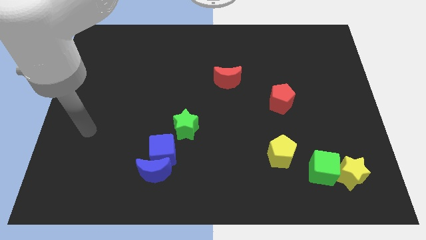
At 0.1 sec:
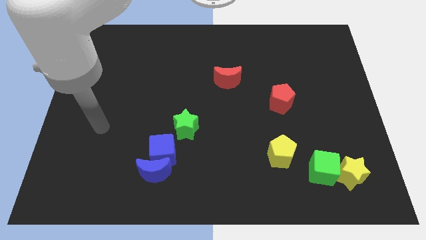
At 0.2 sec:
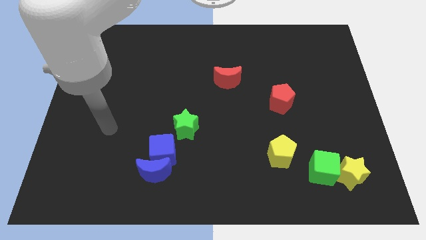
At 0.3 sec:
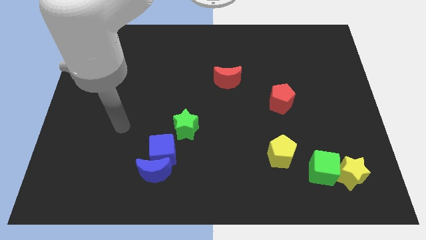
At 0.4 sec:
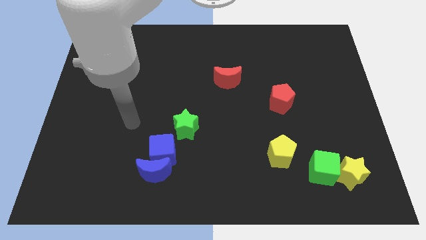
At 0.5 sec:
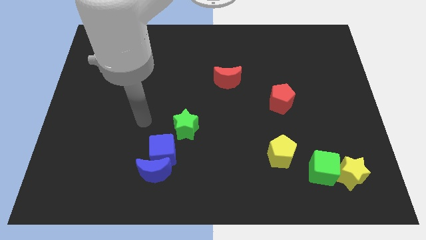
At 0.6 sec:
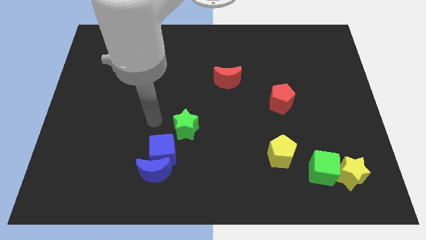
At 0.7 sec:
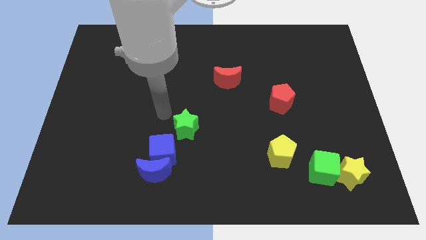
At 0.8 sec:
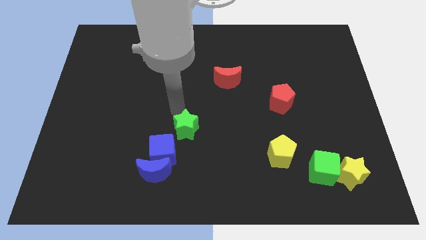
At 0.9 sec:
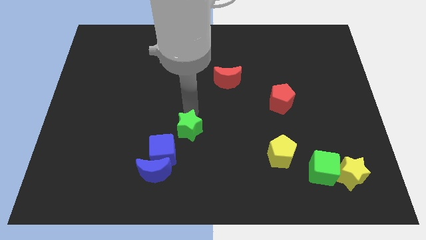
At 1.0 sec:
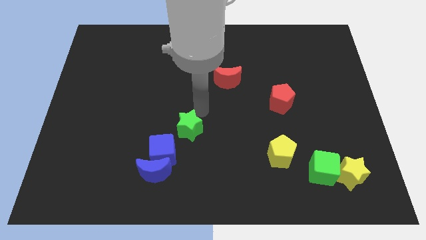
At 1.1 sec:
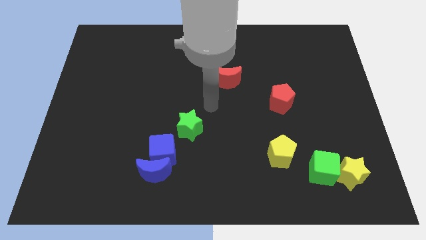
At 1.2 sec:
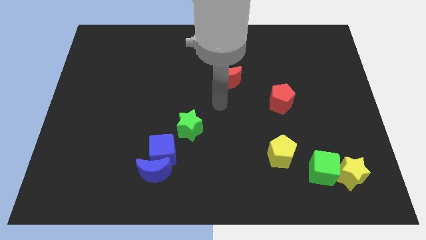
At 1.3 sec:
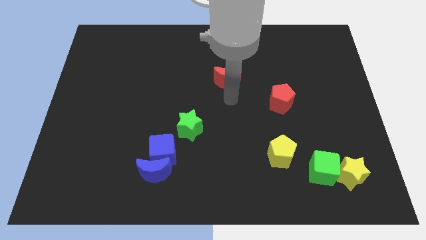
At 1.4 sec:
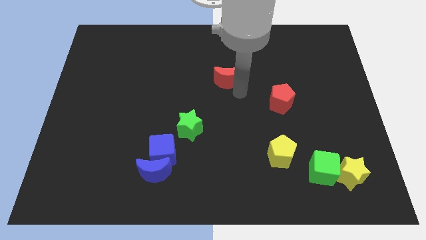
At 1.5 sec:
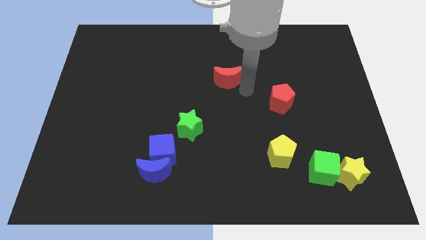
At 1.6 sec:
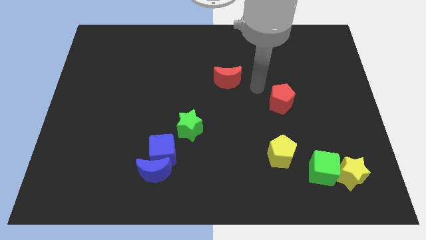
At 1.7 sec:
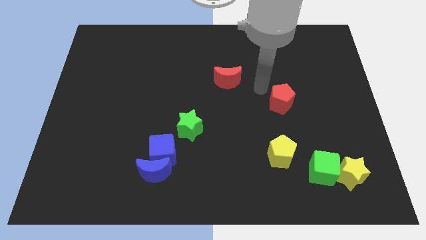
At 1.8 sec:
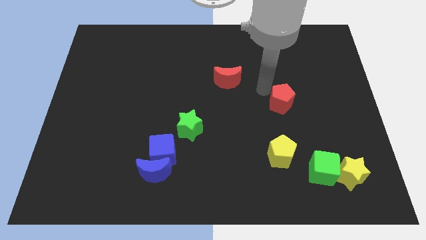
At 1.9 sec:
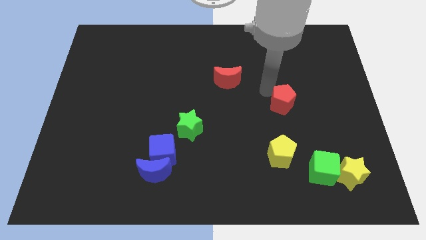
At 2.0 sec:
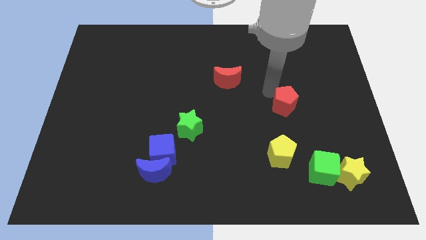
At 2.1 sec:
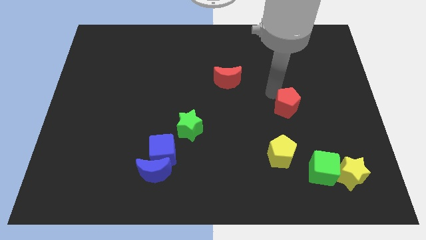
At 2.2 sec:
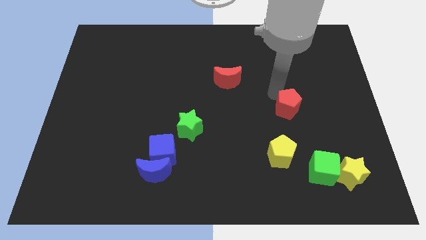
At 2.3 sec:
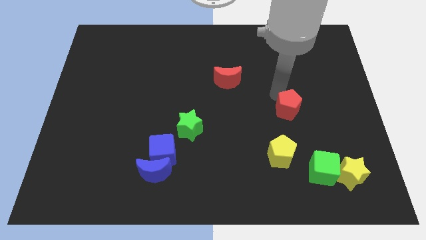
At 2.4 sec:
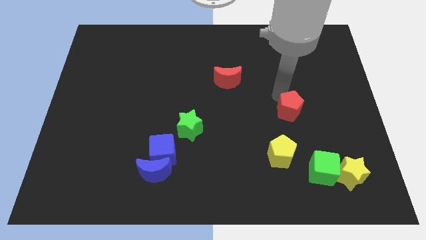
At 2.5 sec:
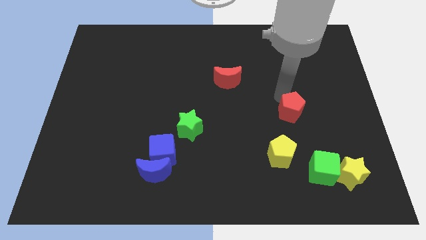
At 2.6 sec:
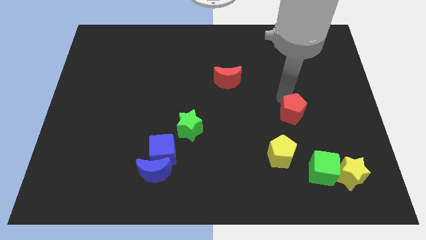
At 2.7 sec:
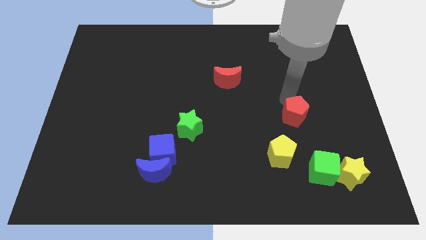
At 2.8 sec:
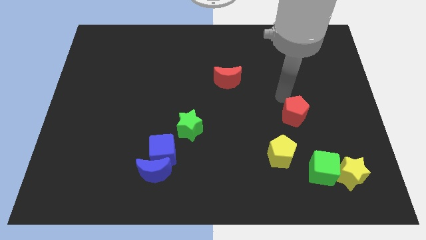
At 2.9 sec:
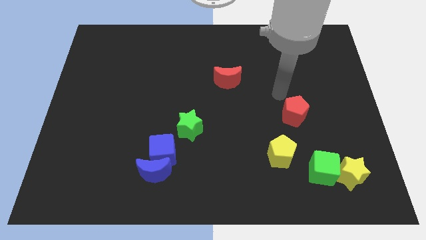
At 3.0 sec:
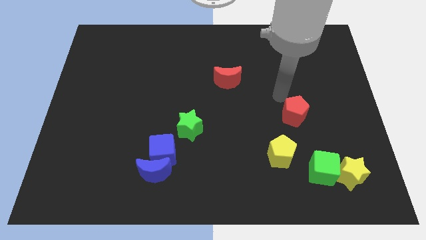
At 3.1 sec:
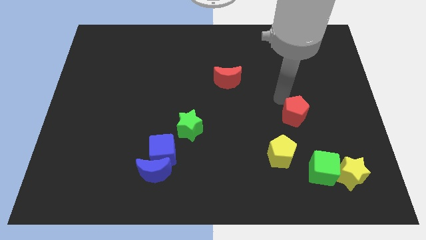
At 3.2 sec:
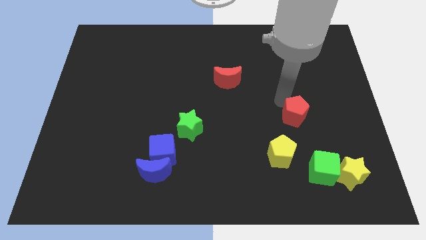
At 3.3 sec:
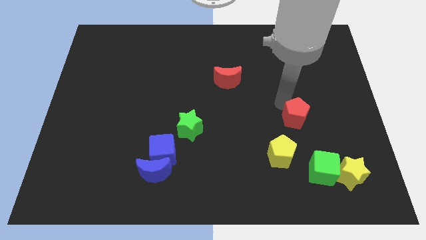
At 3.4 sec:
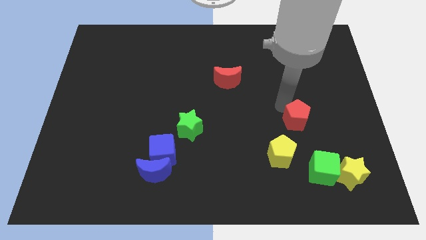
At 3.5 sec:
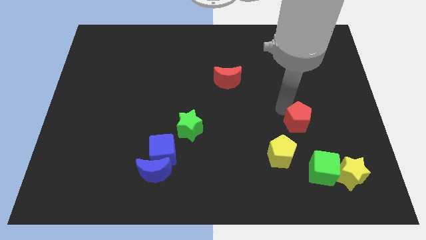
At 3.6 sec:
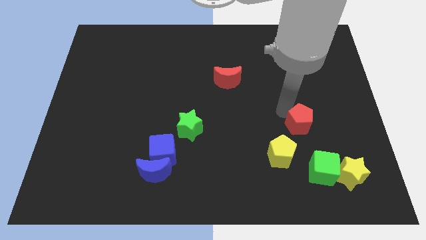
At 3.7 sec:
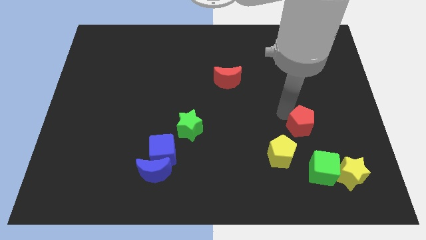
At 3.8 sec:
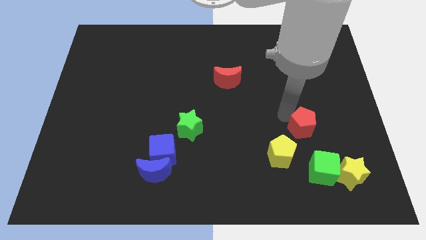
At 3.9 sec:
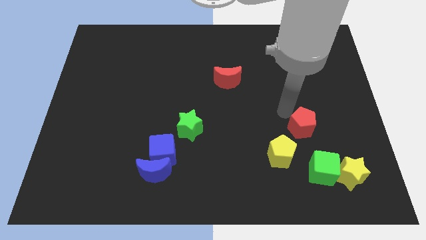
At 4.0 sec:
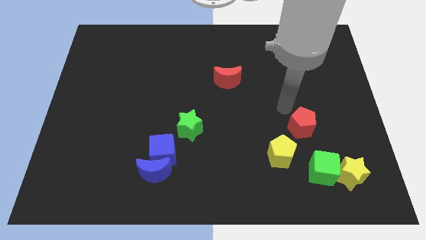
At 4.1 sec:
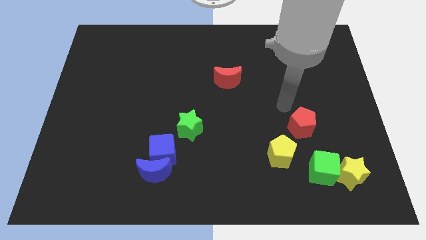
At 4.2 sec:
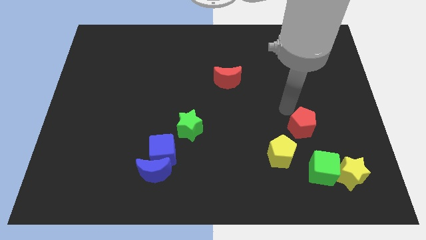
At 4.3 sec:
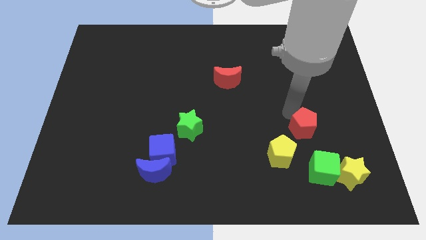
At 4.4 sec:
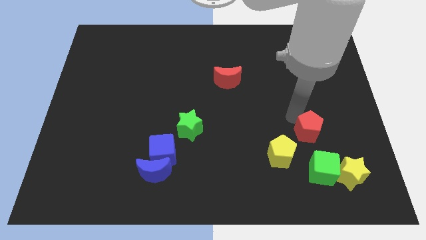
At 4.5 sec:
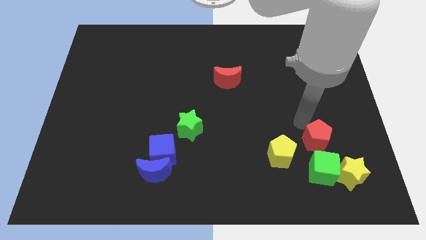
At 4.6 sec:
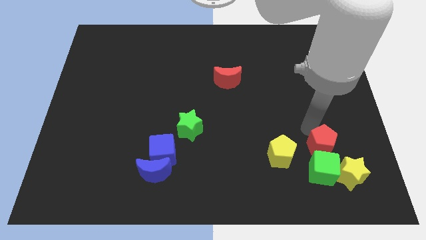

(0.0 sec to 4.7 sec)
slide the red pentagon to the green cube

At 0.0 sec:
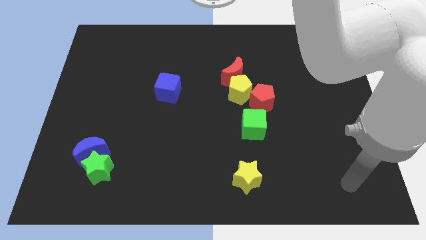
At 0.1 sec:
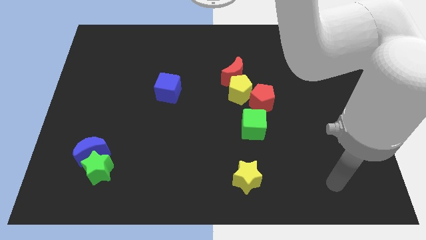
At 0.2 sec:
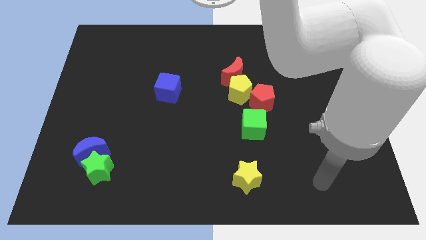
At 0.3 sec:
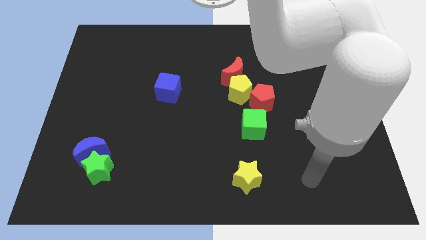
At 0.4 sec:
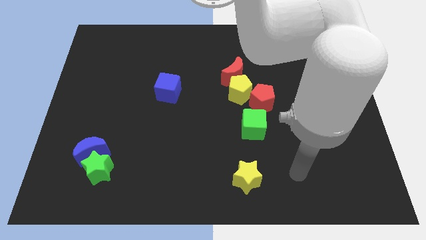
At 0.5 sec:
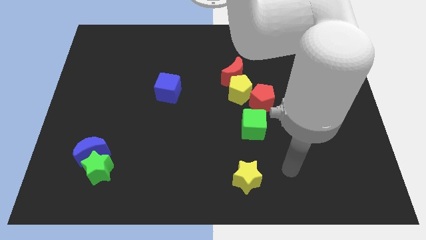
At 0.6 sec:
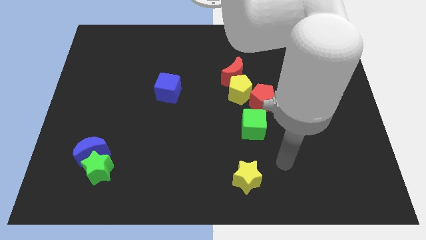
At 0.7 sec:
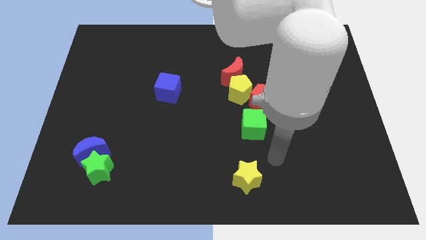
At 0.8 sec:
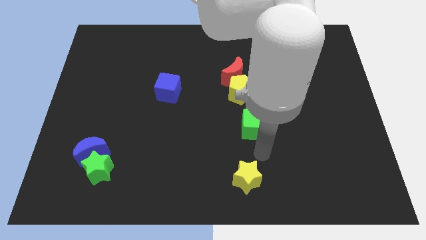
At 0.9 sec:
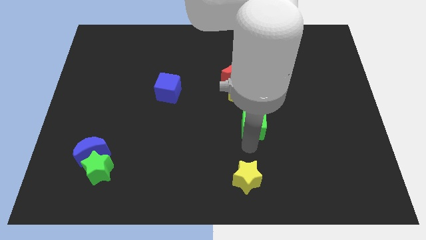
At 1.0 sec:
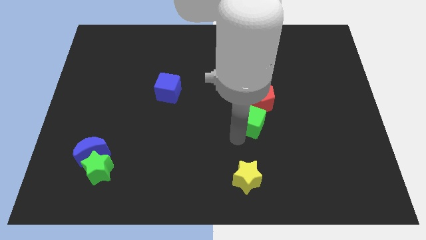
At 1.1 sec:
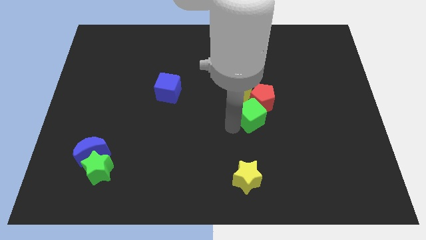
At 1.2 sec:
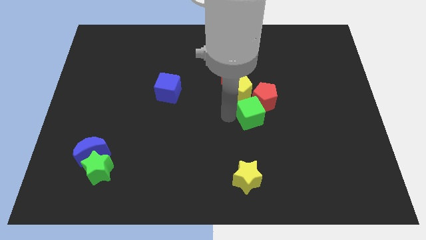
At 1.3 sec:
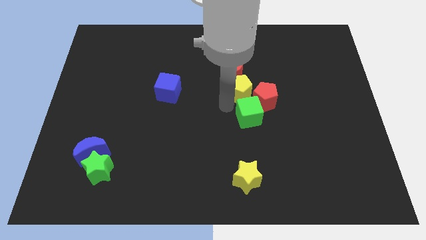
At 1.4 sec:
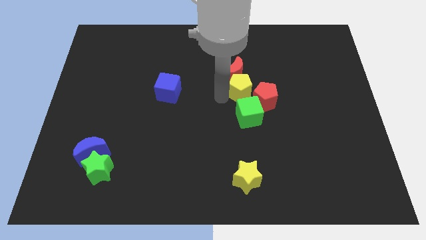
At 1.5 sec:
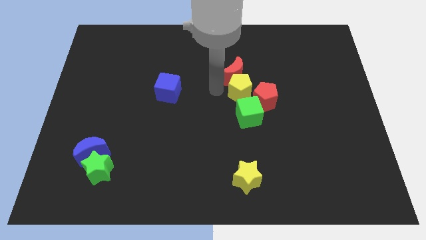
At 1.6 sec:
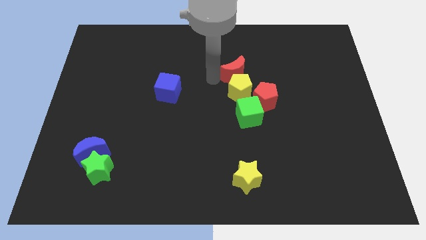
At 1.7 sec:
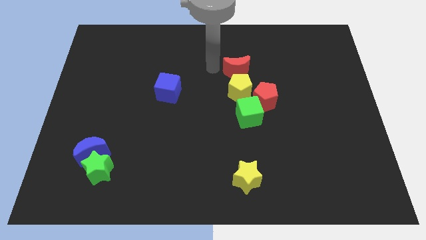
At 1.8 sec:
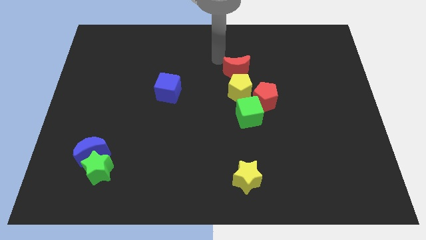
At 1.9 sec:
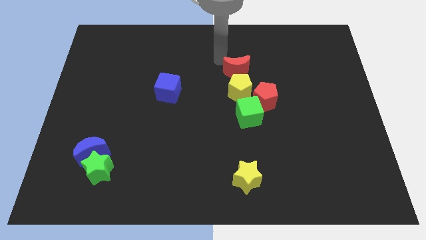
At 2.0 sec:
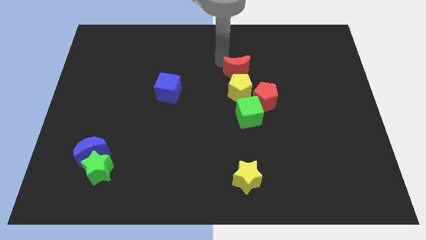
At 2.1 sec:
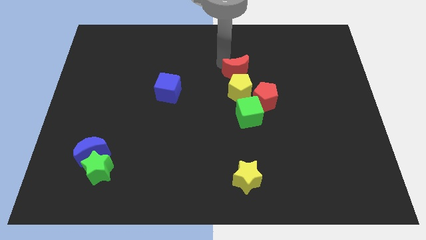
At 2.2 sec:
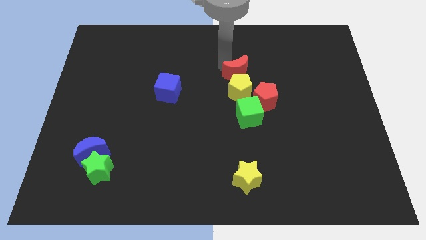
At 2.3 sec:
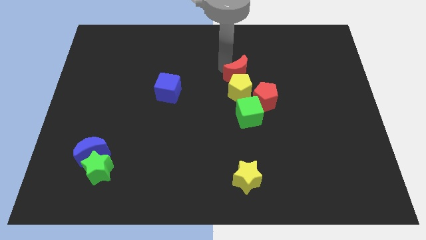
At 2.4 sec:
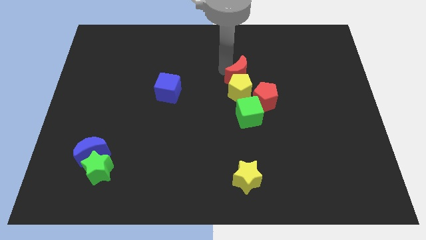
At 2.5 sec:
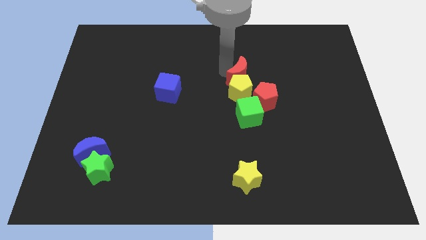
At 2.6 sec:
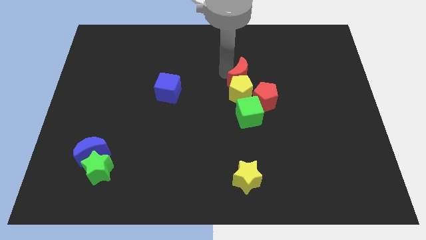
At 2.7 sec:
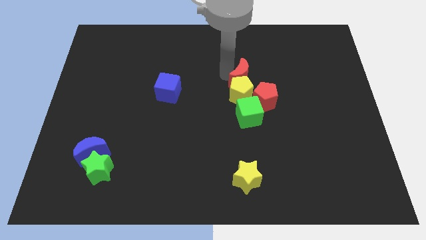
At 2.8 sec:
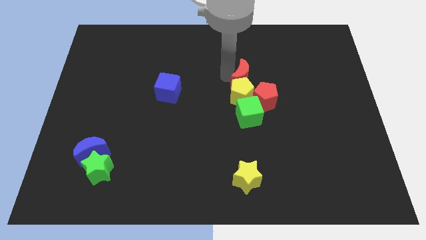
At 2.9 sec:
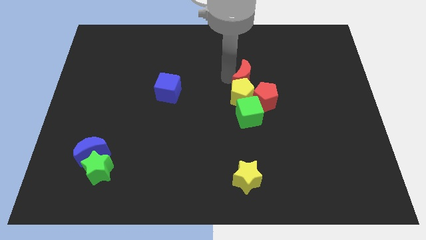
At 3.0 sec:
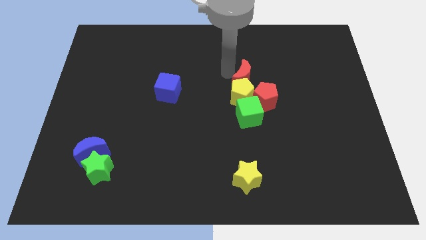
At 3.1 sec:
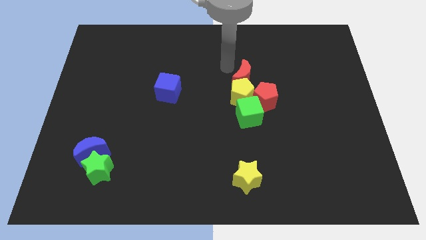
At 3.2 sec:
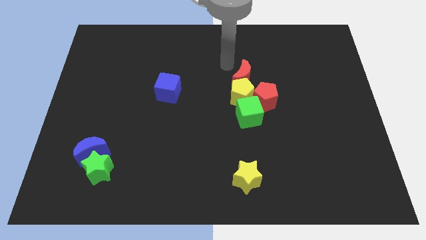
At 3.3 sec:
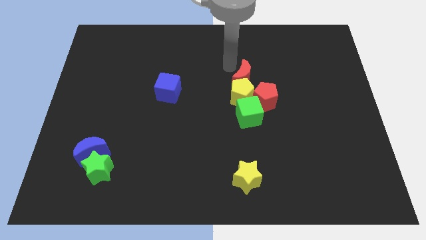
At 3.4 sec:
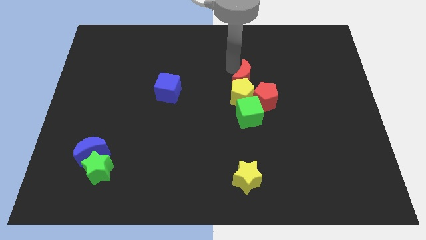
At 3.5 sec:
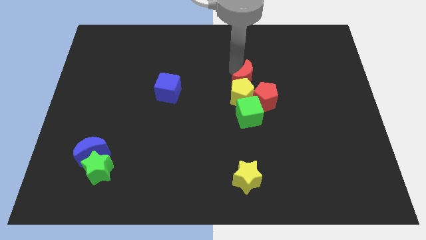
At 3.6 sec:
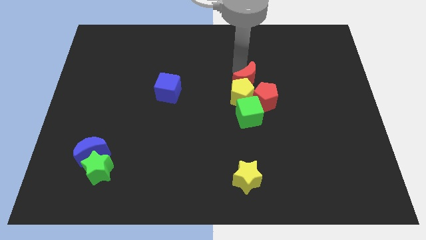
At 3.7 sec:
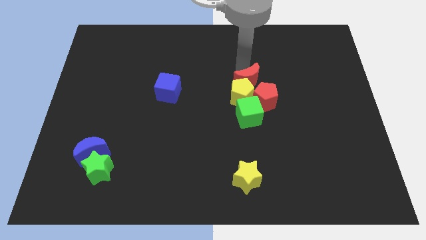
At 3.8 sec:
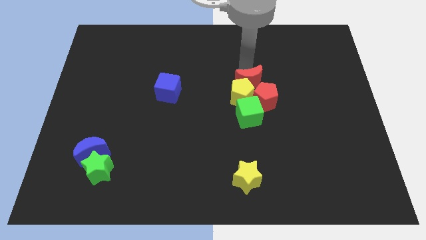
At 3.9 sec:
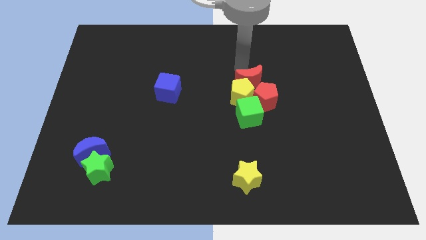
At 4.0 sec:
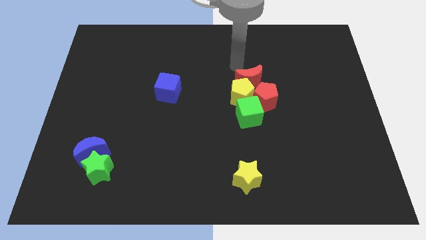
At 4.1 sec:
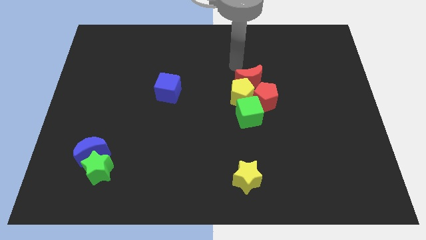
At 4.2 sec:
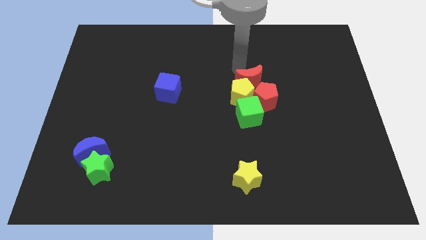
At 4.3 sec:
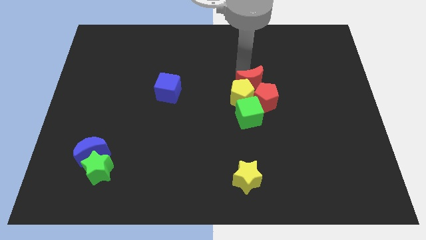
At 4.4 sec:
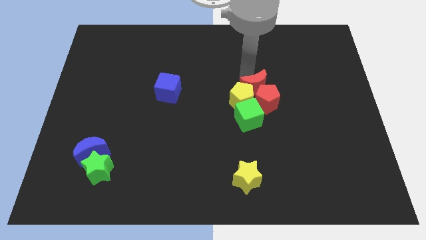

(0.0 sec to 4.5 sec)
move the red moon close to the red pentagon
